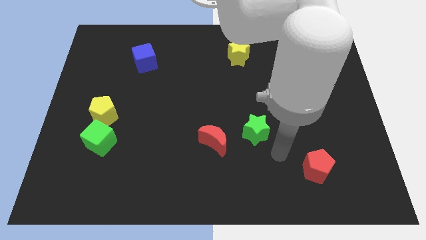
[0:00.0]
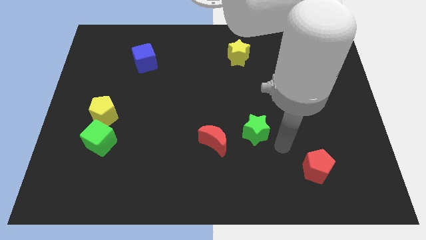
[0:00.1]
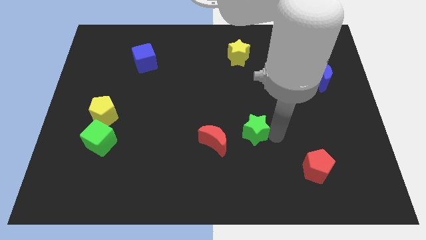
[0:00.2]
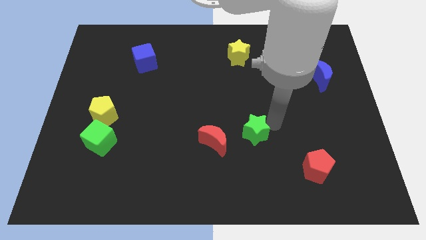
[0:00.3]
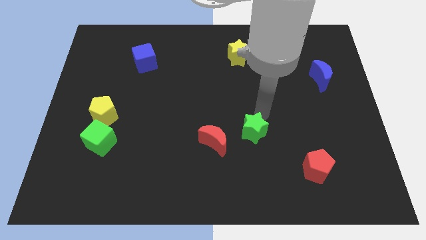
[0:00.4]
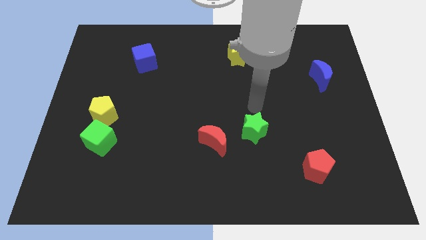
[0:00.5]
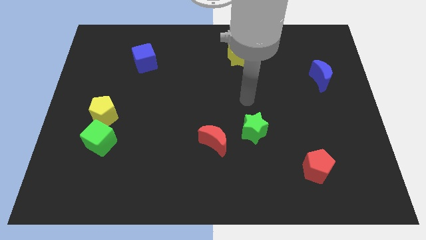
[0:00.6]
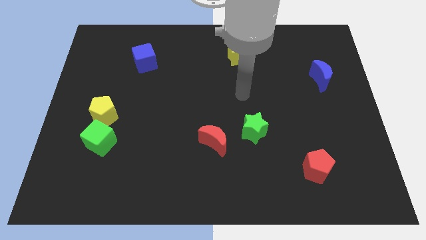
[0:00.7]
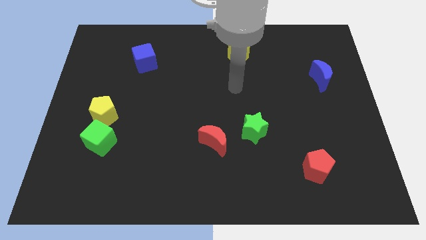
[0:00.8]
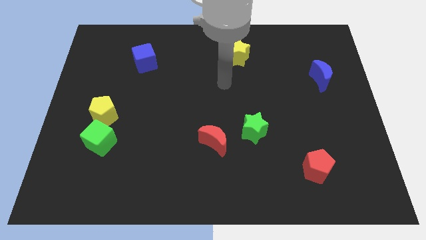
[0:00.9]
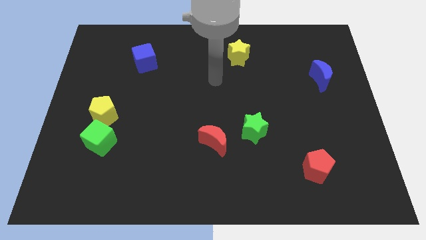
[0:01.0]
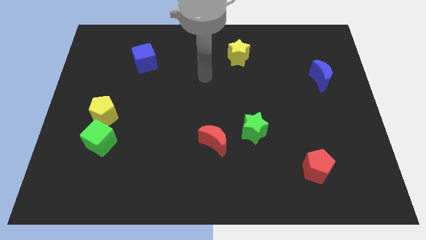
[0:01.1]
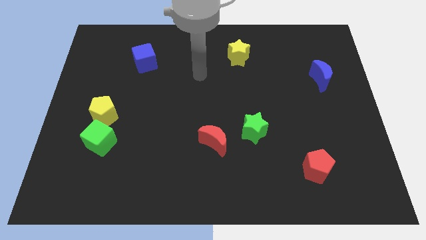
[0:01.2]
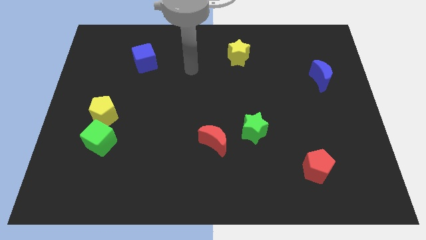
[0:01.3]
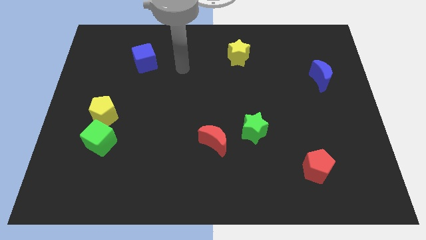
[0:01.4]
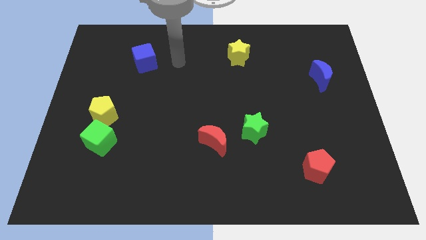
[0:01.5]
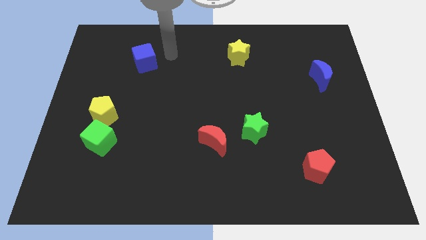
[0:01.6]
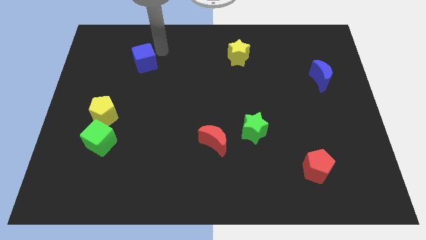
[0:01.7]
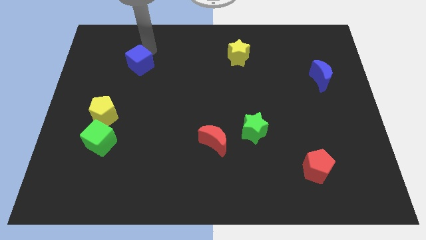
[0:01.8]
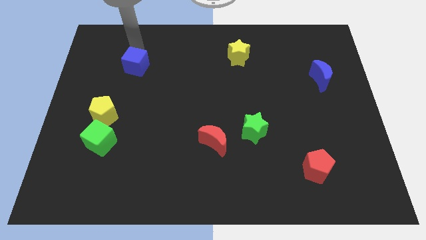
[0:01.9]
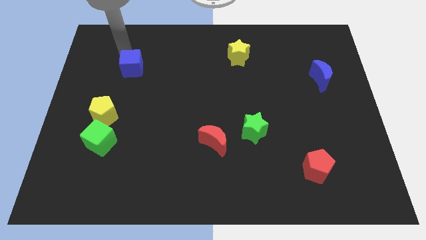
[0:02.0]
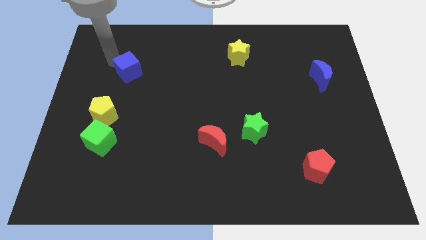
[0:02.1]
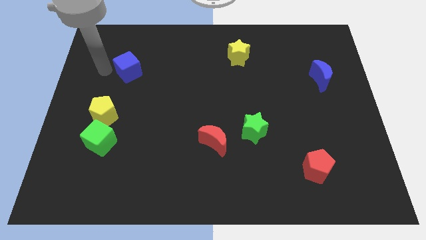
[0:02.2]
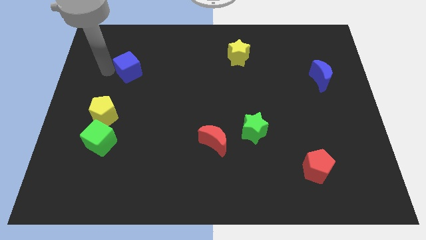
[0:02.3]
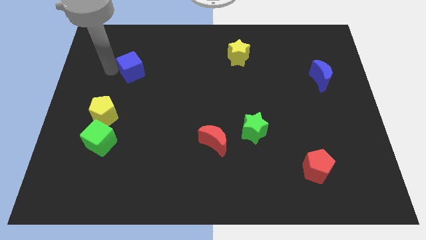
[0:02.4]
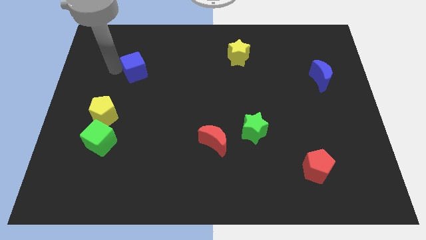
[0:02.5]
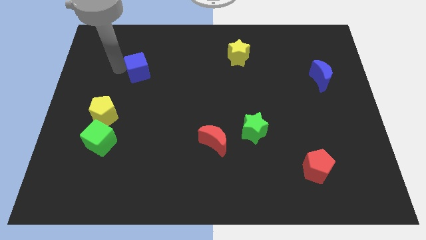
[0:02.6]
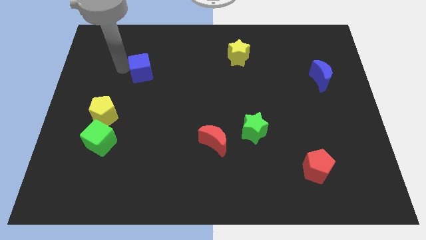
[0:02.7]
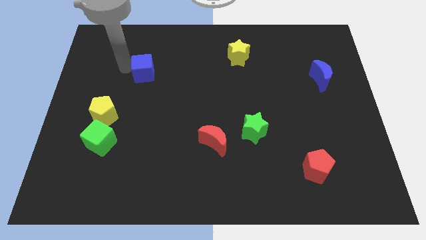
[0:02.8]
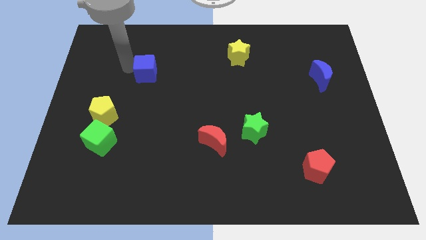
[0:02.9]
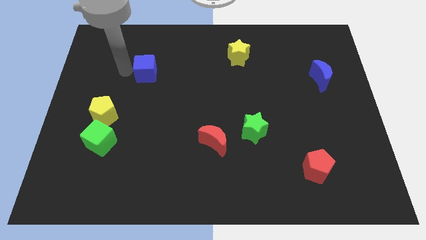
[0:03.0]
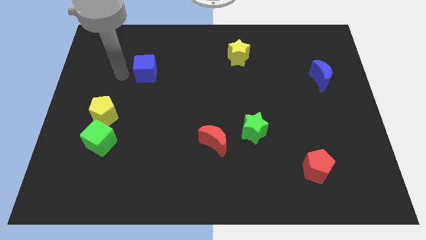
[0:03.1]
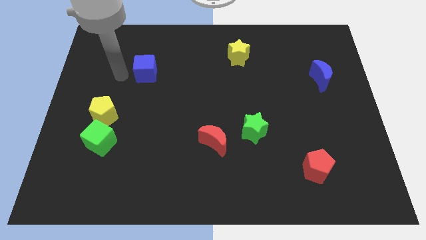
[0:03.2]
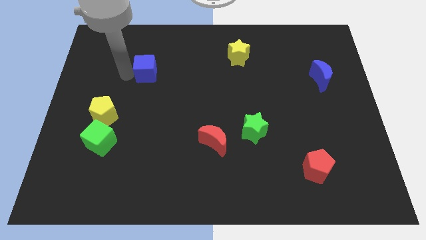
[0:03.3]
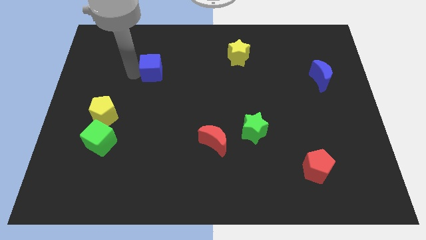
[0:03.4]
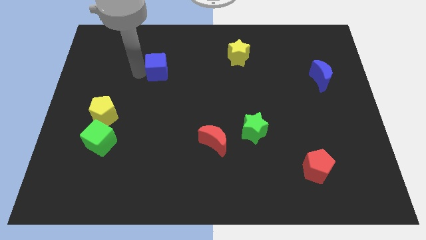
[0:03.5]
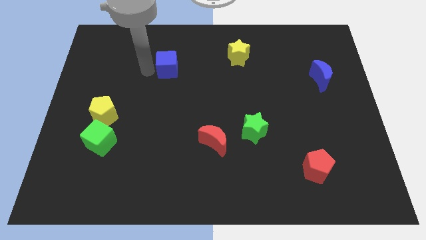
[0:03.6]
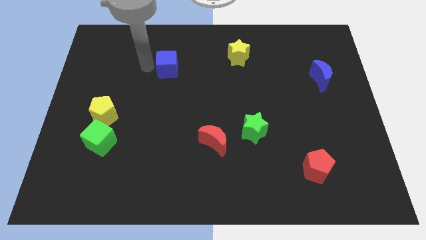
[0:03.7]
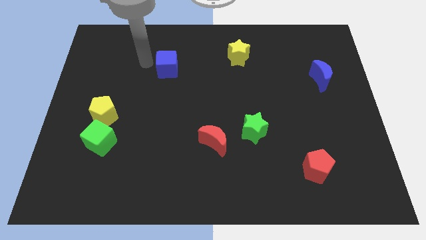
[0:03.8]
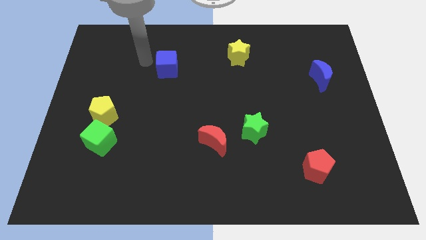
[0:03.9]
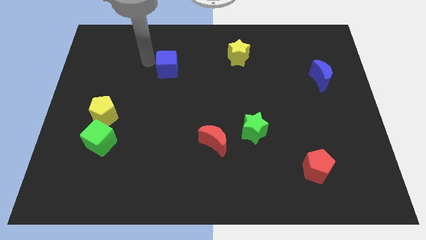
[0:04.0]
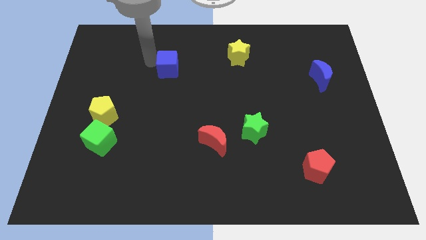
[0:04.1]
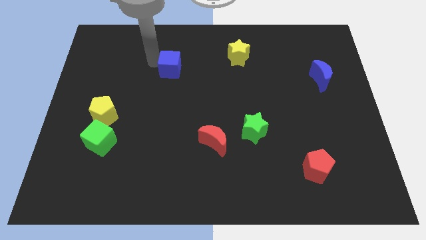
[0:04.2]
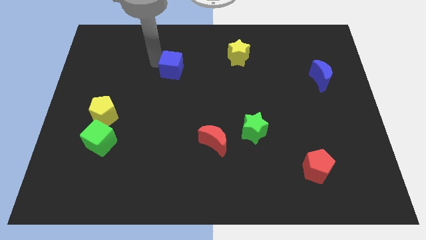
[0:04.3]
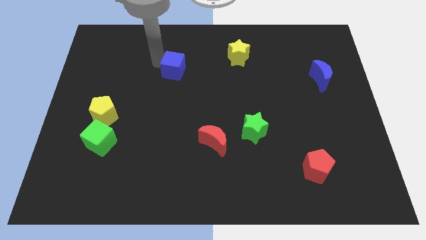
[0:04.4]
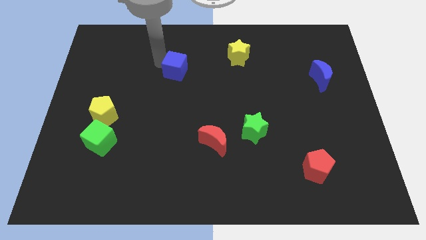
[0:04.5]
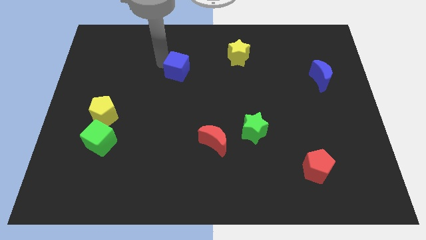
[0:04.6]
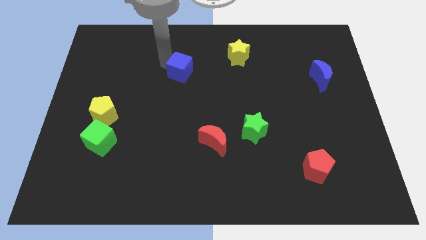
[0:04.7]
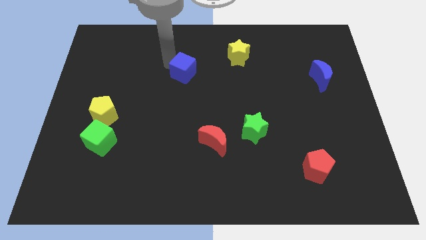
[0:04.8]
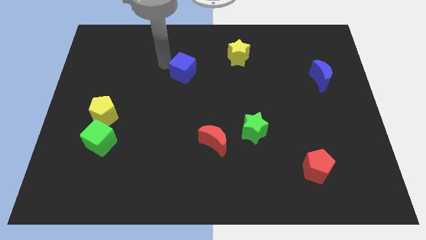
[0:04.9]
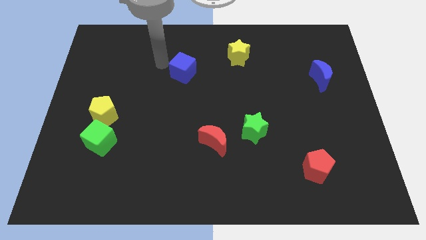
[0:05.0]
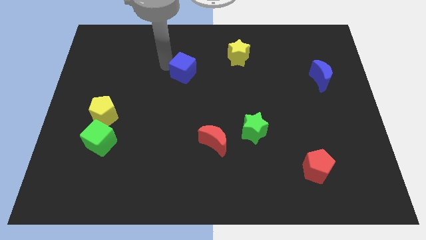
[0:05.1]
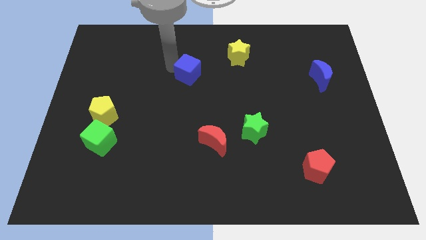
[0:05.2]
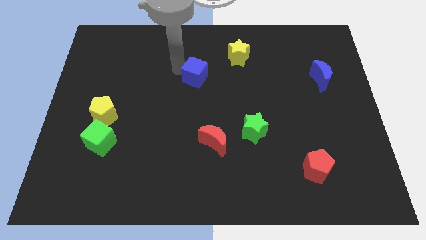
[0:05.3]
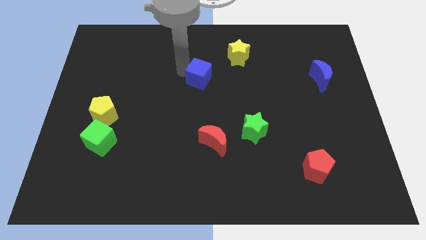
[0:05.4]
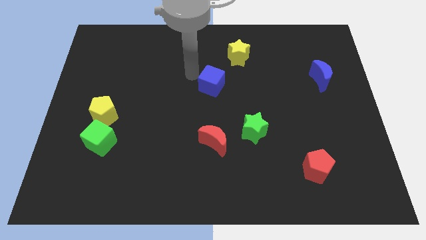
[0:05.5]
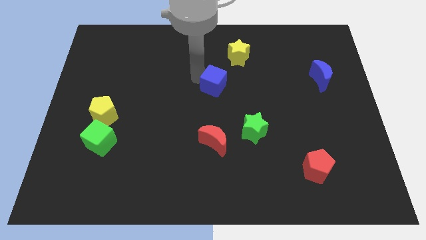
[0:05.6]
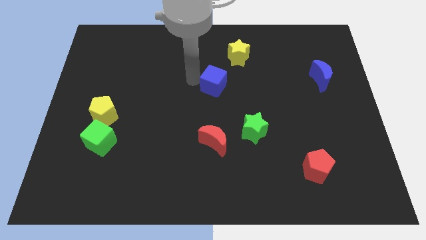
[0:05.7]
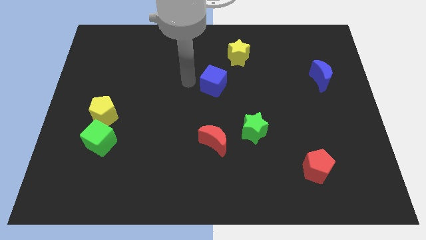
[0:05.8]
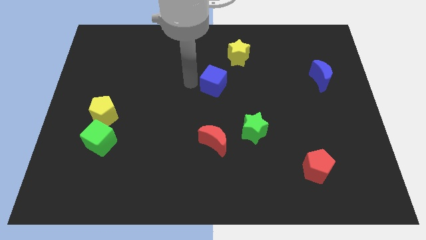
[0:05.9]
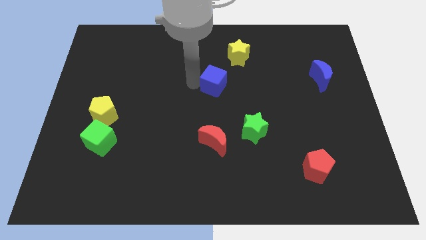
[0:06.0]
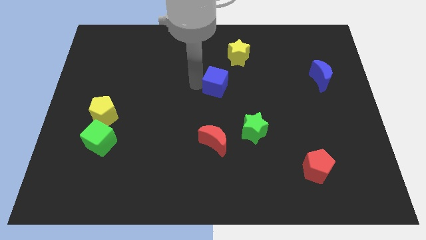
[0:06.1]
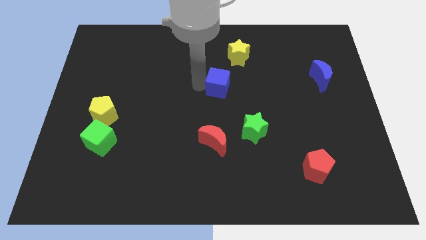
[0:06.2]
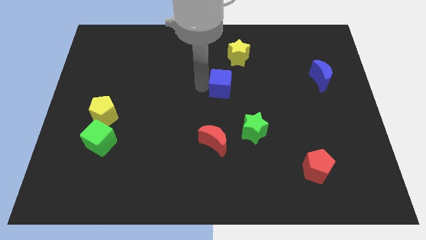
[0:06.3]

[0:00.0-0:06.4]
push the blue cube to the bottom side of the yellow star

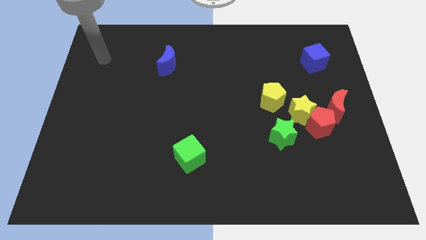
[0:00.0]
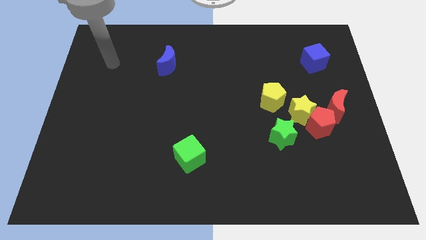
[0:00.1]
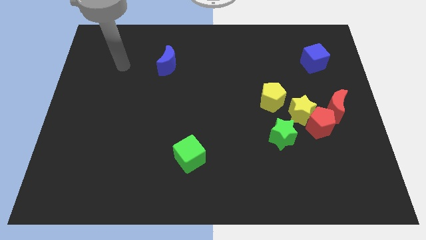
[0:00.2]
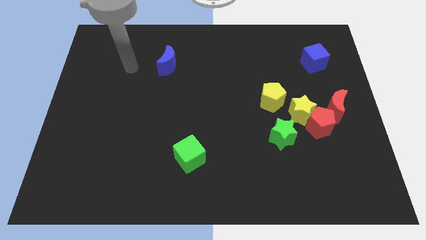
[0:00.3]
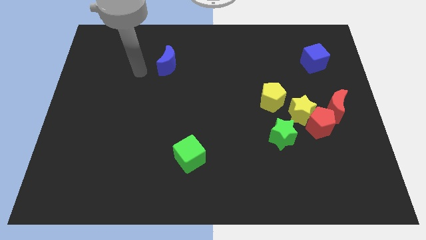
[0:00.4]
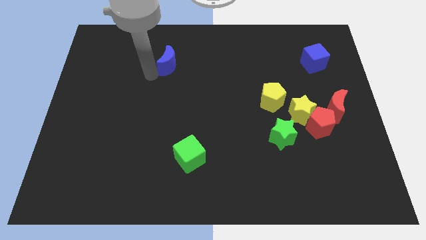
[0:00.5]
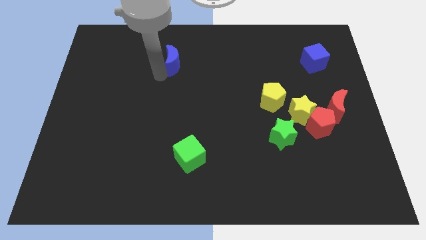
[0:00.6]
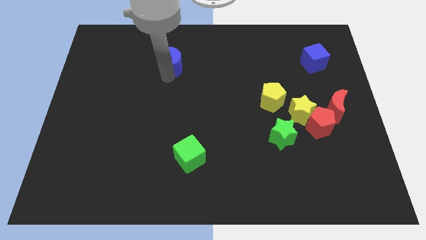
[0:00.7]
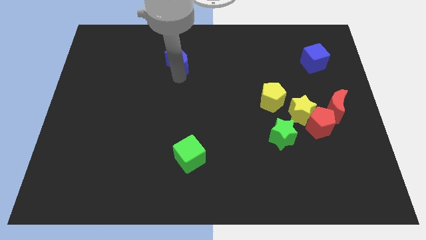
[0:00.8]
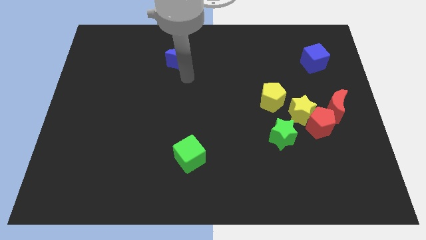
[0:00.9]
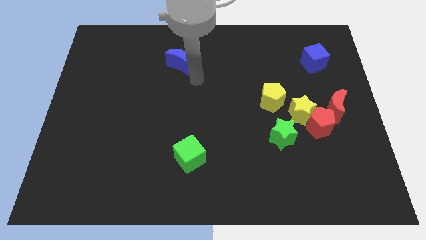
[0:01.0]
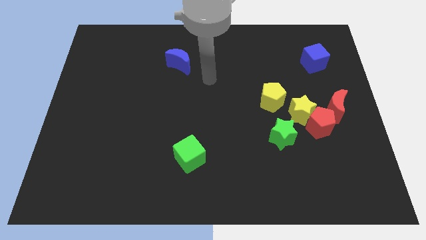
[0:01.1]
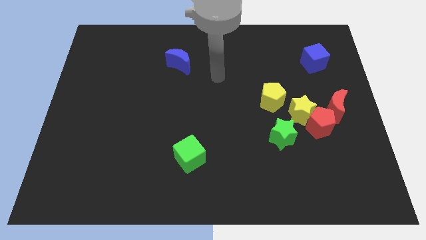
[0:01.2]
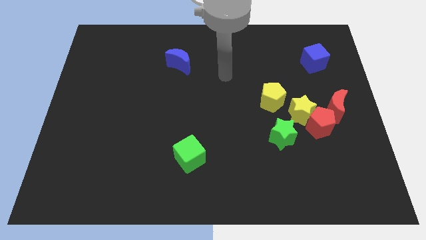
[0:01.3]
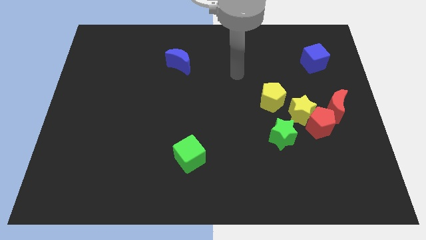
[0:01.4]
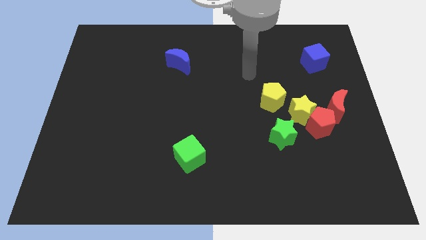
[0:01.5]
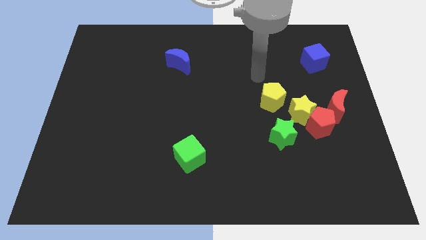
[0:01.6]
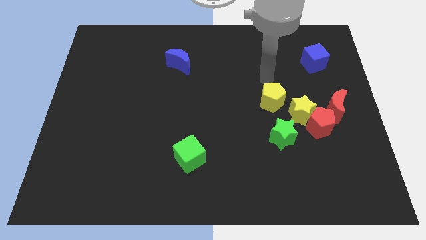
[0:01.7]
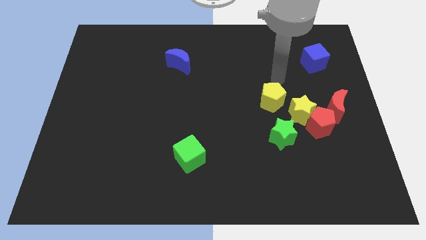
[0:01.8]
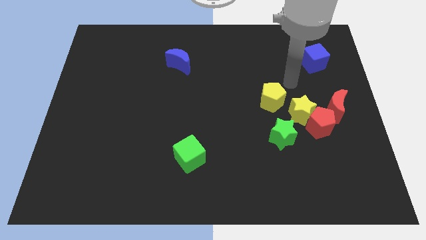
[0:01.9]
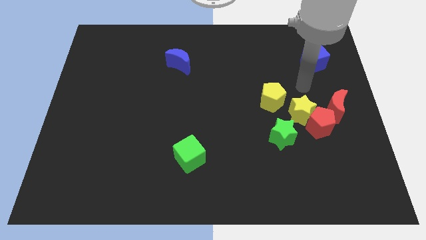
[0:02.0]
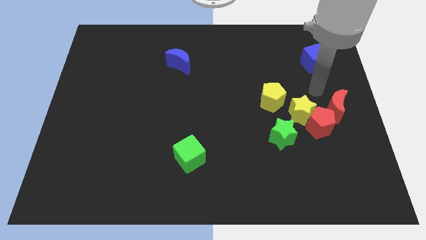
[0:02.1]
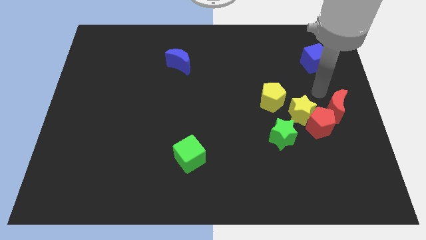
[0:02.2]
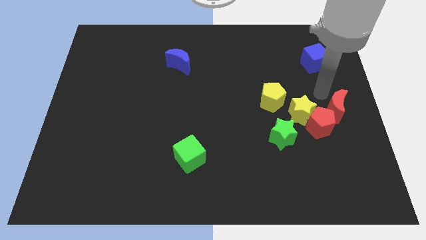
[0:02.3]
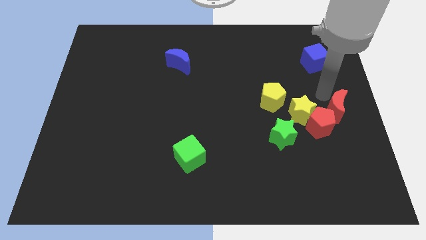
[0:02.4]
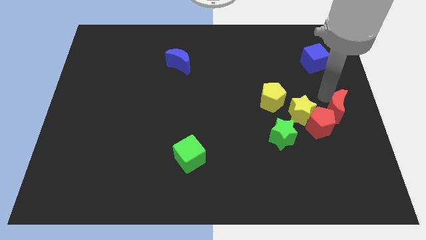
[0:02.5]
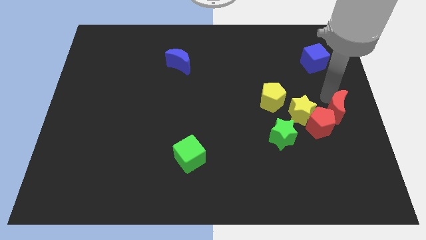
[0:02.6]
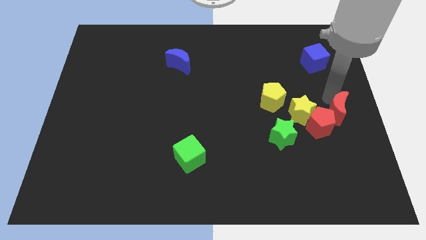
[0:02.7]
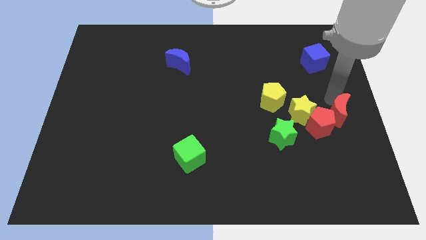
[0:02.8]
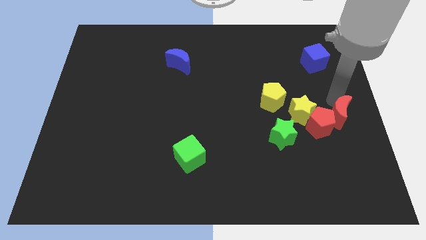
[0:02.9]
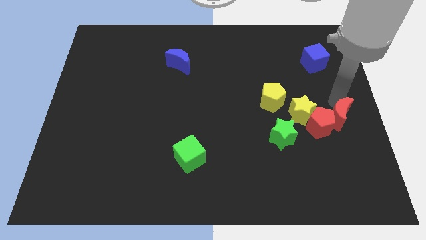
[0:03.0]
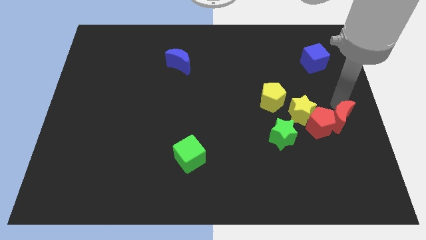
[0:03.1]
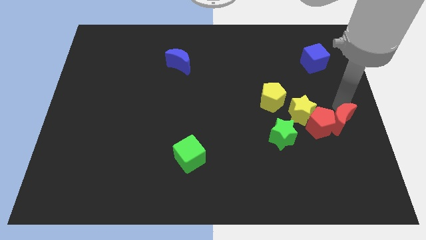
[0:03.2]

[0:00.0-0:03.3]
move the red moon right of the green star
